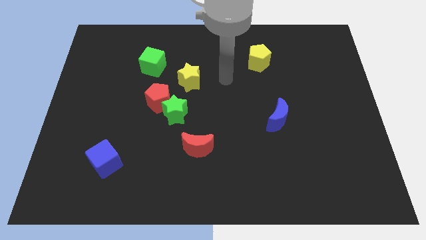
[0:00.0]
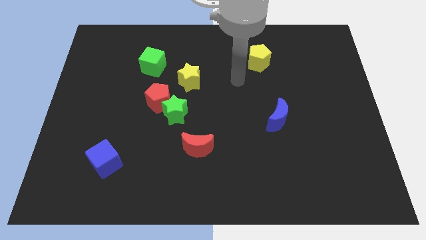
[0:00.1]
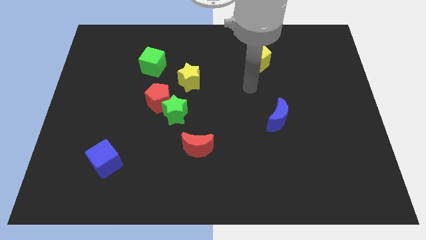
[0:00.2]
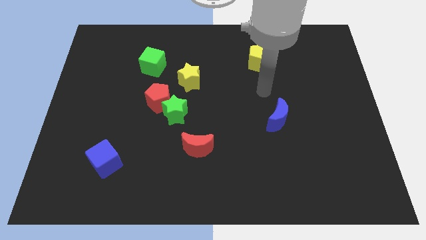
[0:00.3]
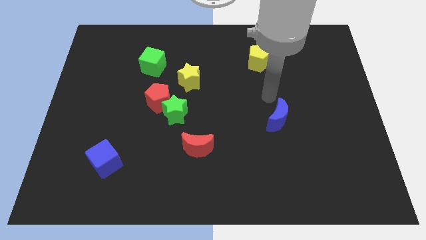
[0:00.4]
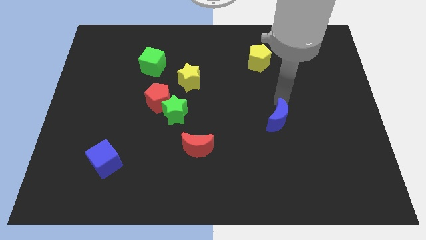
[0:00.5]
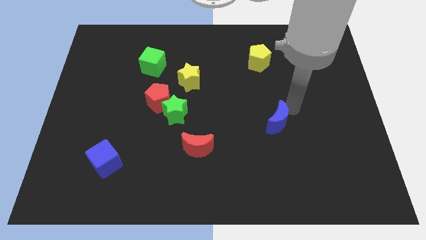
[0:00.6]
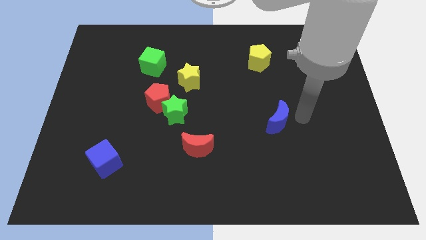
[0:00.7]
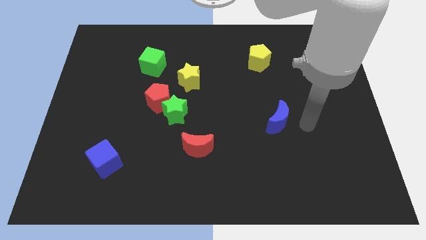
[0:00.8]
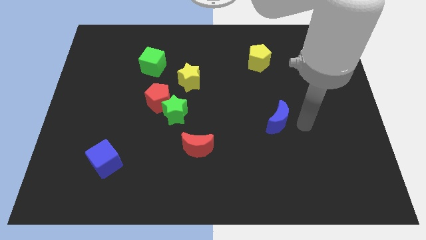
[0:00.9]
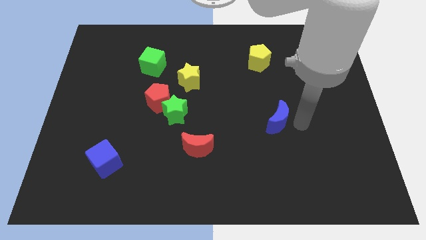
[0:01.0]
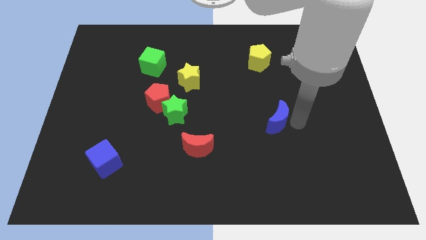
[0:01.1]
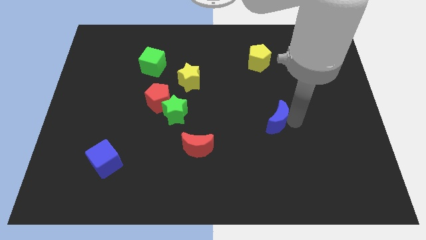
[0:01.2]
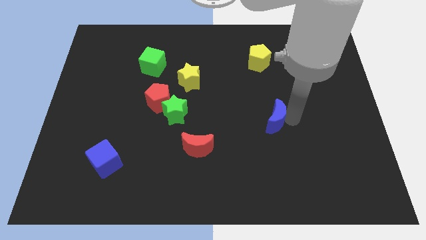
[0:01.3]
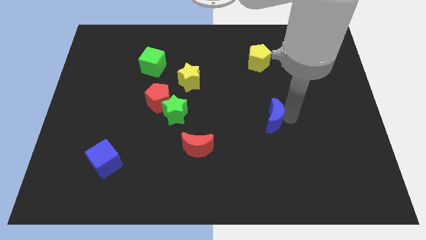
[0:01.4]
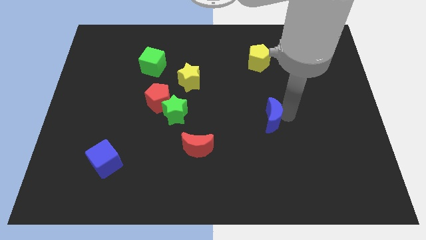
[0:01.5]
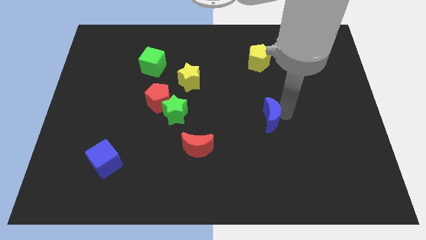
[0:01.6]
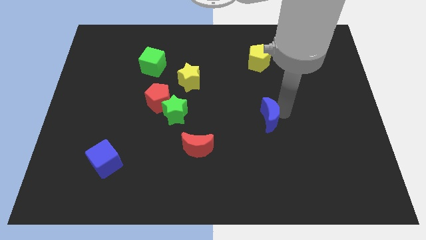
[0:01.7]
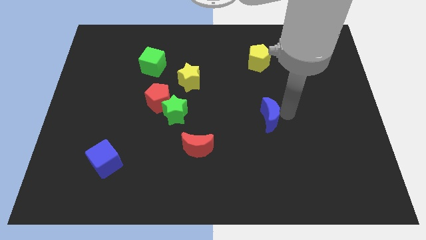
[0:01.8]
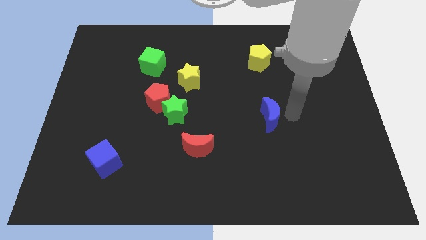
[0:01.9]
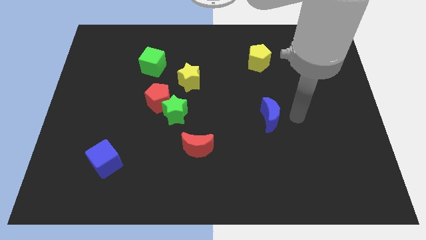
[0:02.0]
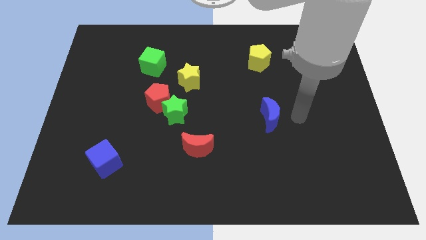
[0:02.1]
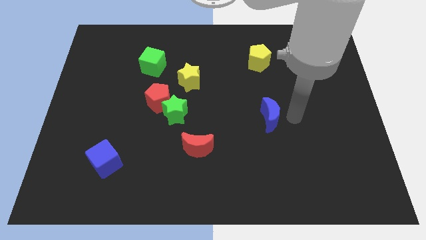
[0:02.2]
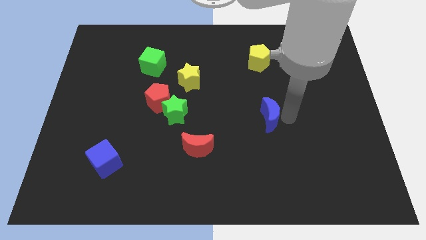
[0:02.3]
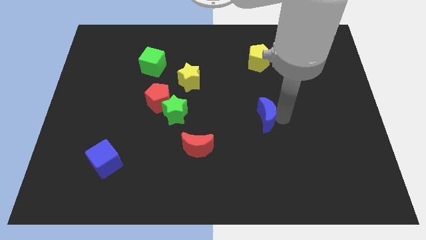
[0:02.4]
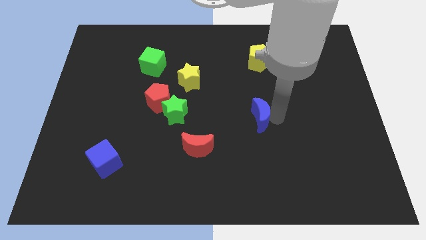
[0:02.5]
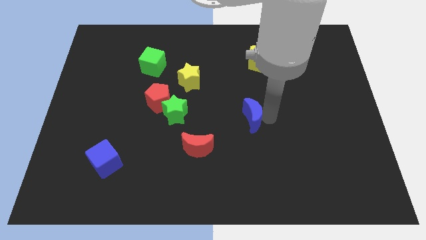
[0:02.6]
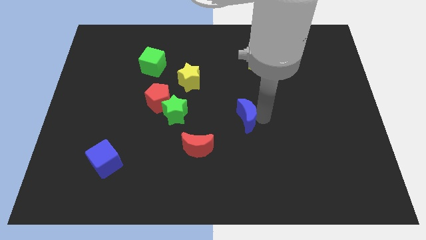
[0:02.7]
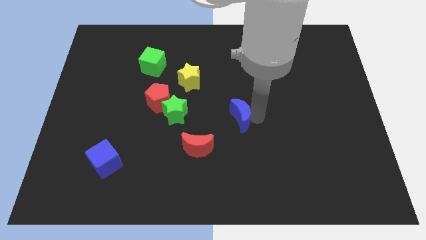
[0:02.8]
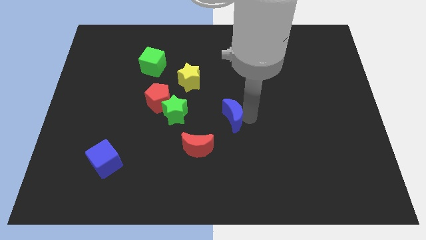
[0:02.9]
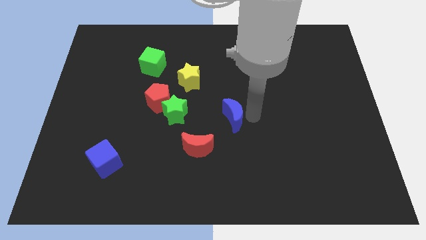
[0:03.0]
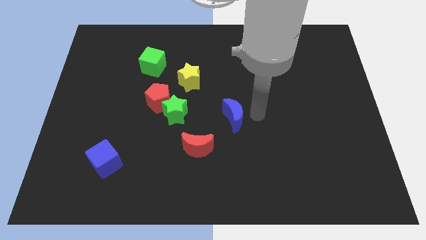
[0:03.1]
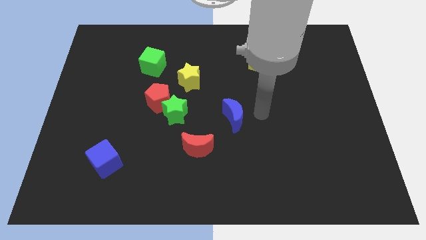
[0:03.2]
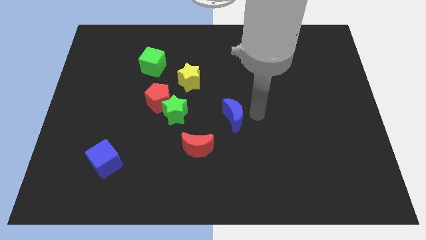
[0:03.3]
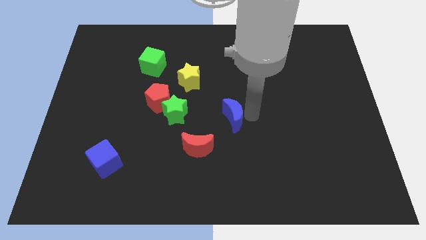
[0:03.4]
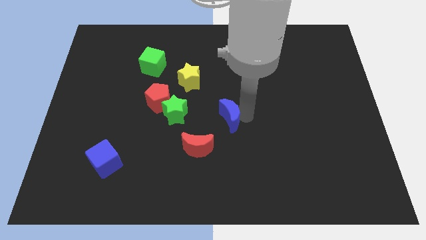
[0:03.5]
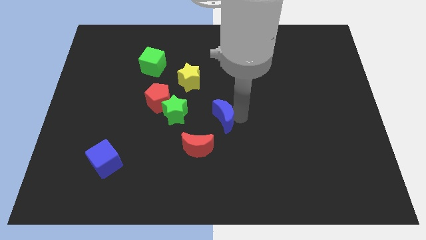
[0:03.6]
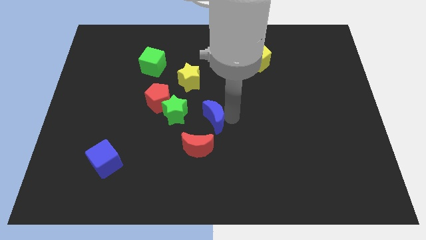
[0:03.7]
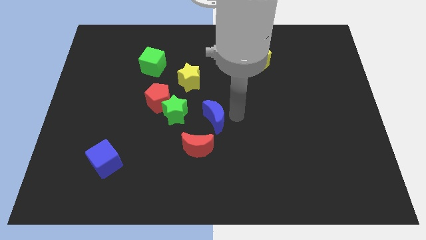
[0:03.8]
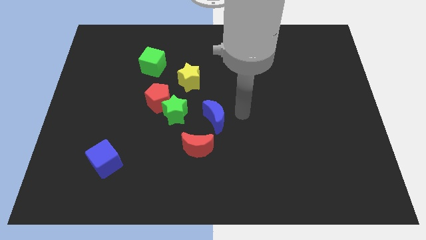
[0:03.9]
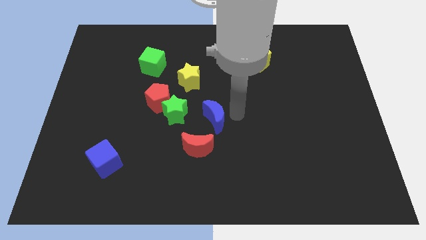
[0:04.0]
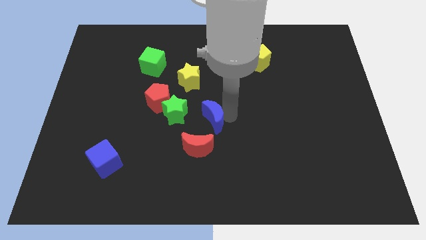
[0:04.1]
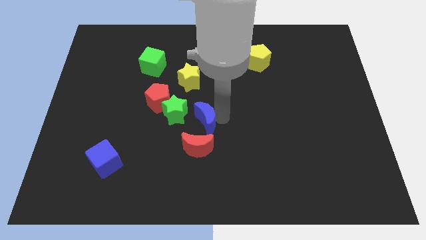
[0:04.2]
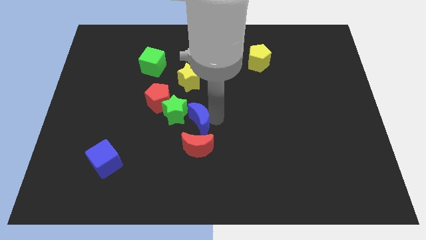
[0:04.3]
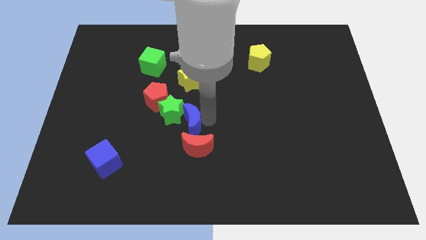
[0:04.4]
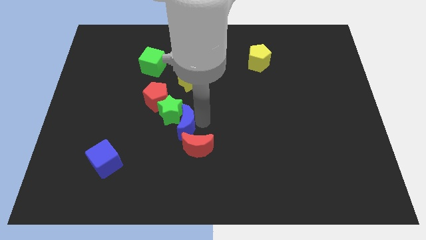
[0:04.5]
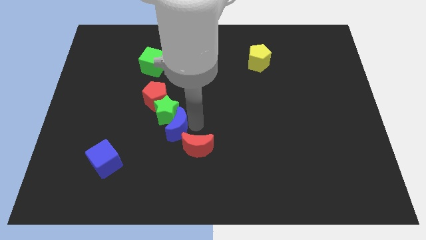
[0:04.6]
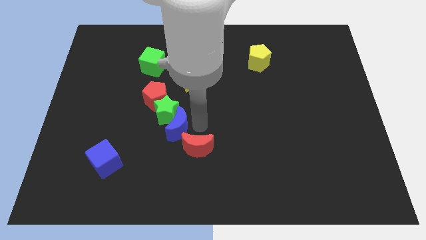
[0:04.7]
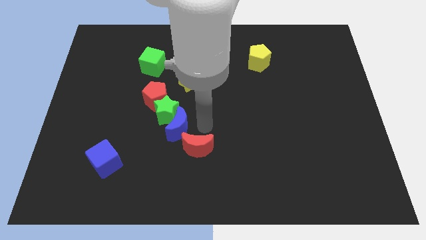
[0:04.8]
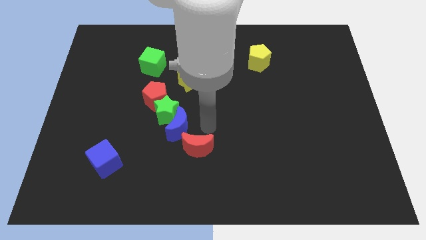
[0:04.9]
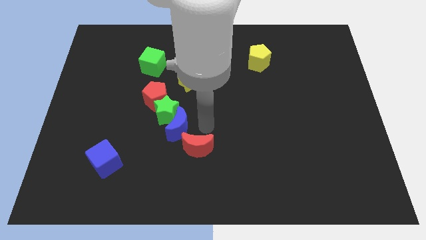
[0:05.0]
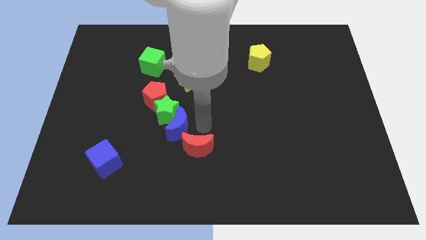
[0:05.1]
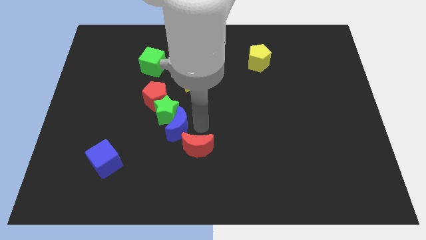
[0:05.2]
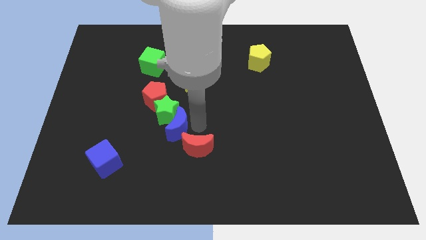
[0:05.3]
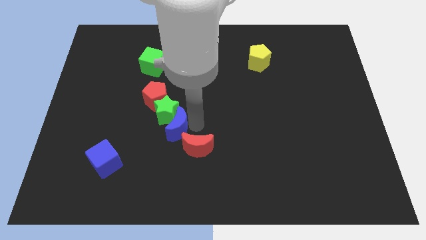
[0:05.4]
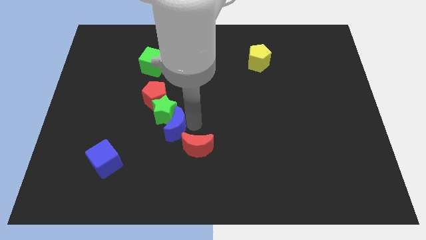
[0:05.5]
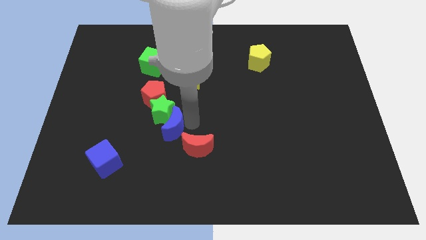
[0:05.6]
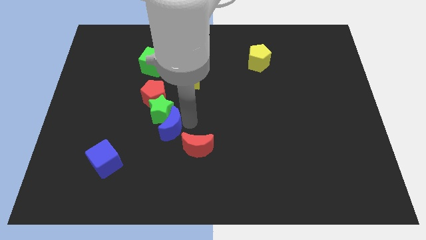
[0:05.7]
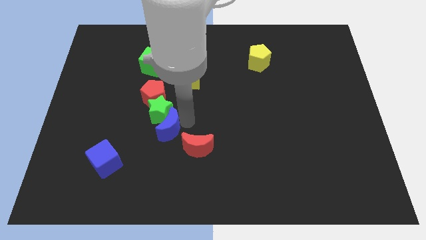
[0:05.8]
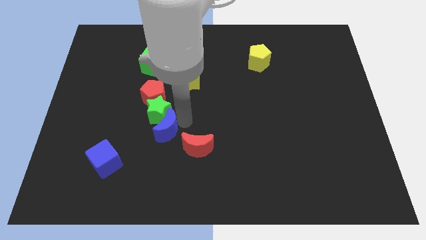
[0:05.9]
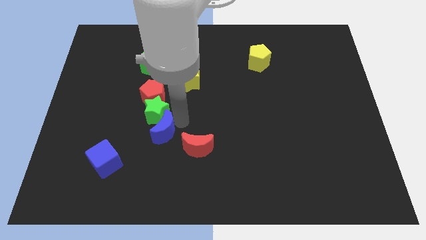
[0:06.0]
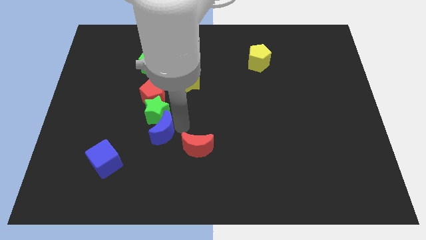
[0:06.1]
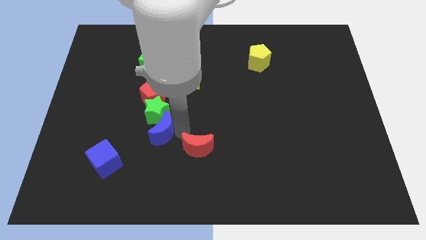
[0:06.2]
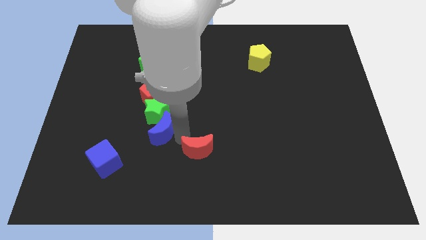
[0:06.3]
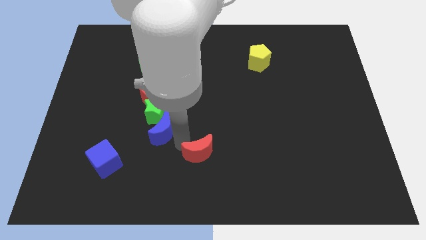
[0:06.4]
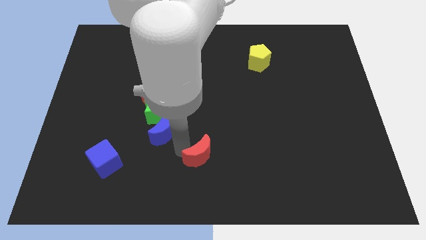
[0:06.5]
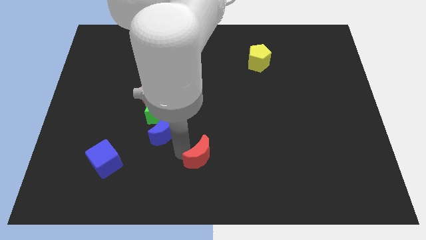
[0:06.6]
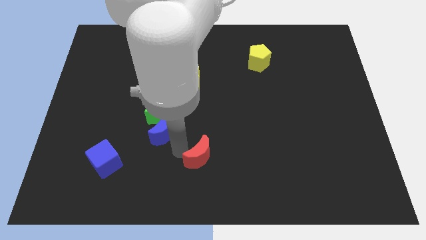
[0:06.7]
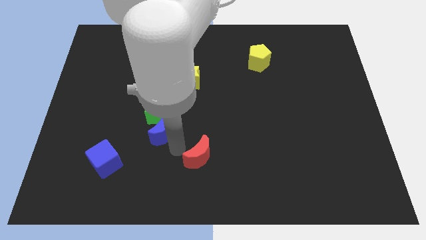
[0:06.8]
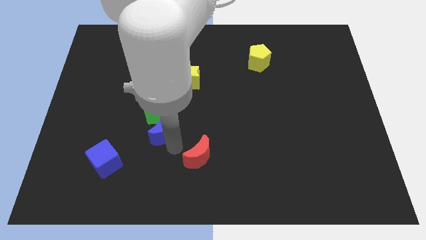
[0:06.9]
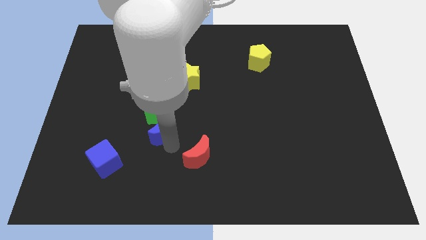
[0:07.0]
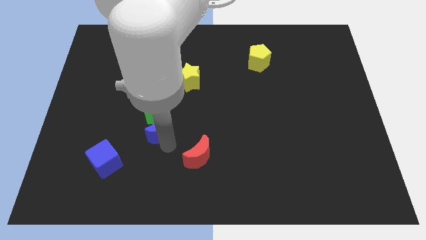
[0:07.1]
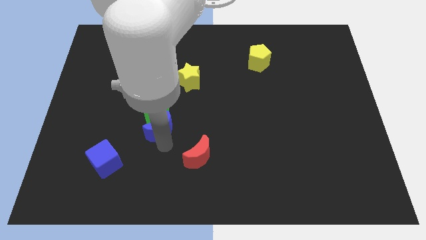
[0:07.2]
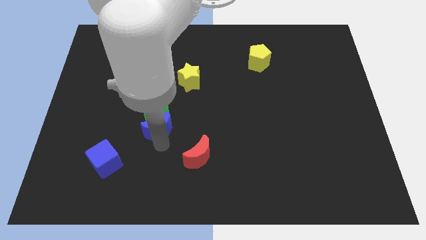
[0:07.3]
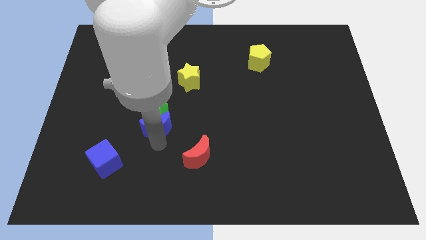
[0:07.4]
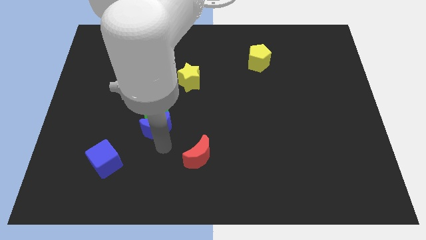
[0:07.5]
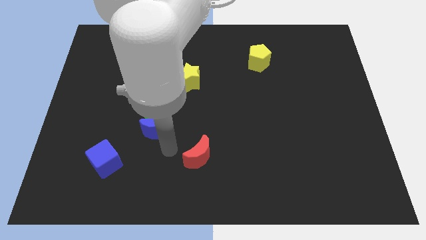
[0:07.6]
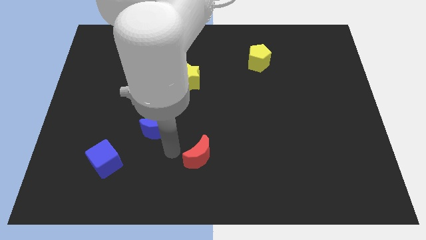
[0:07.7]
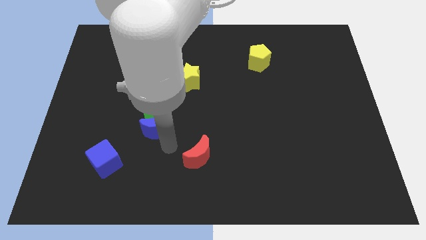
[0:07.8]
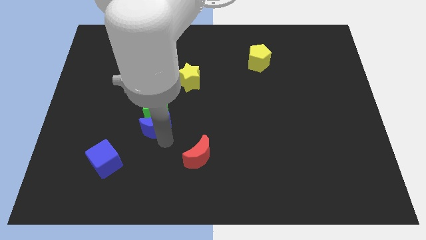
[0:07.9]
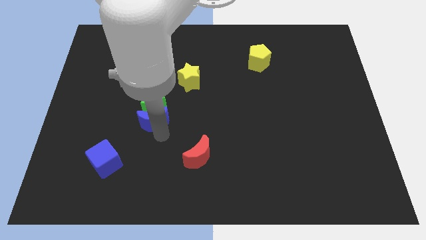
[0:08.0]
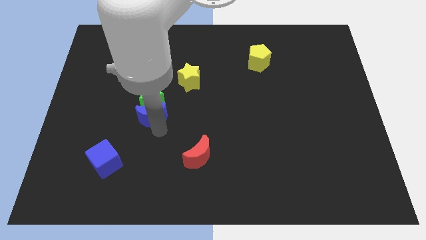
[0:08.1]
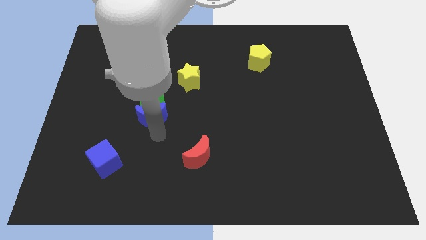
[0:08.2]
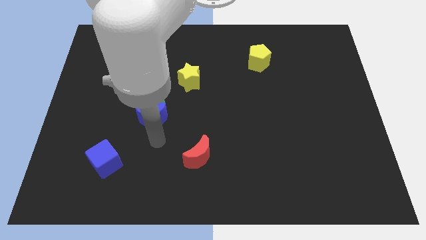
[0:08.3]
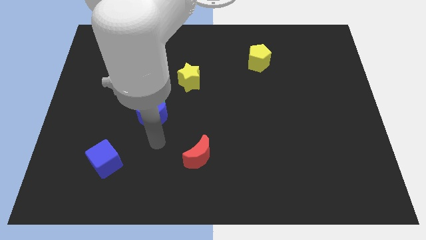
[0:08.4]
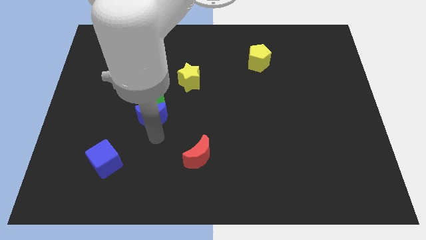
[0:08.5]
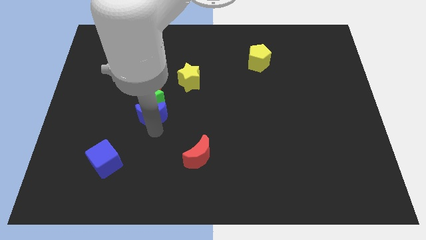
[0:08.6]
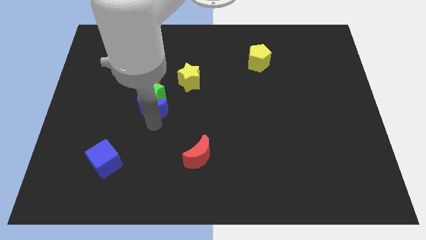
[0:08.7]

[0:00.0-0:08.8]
move the blue moon to the bottom of the green cube
